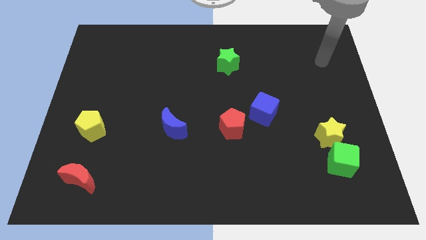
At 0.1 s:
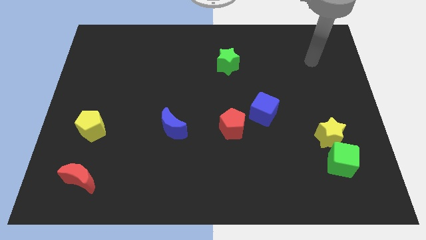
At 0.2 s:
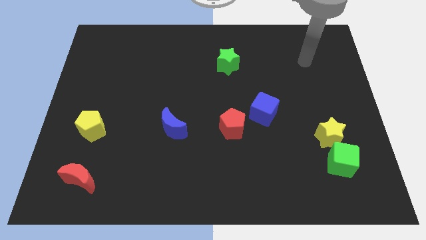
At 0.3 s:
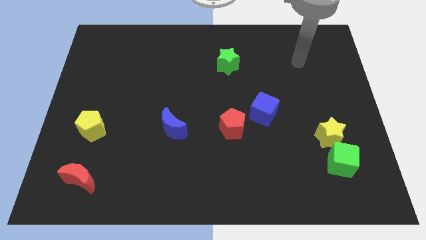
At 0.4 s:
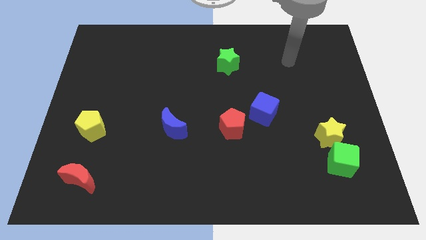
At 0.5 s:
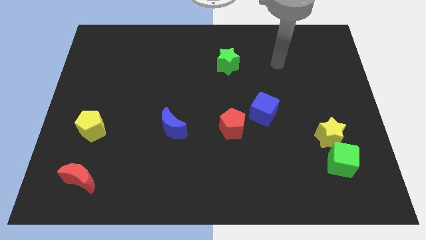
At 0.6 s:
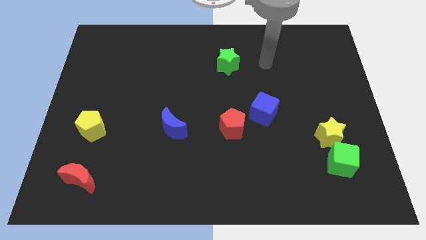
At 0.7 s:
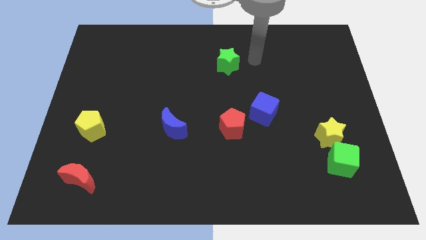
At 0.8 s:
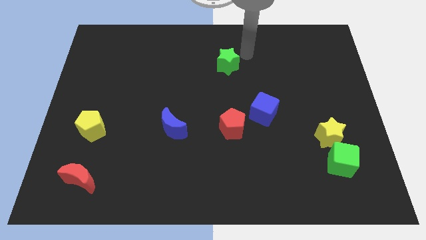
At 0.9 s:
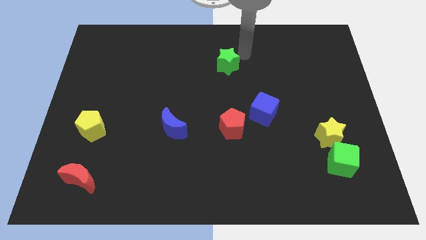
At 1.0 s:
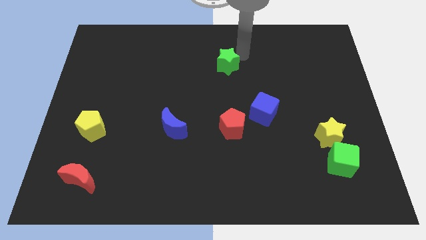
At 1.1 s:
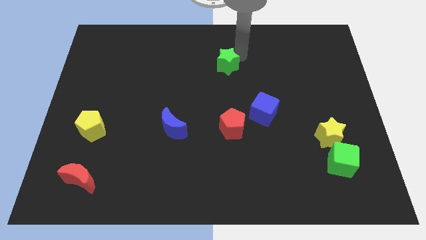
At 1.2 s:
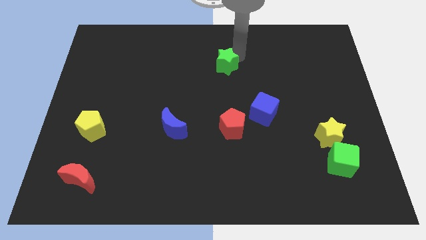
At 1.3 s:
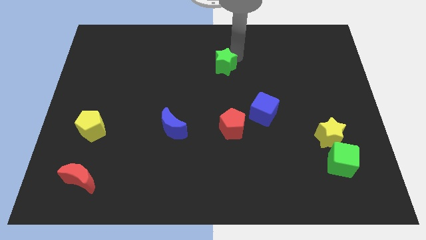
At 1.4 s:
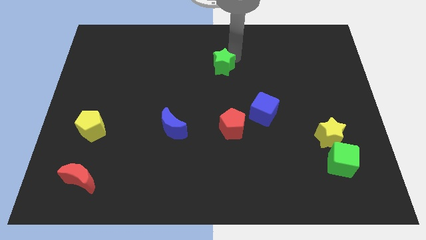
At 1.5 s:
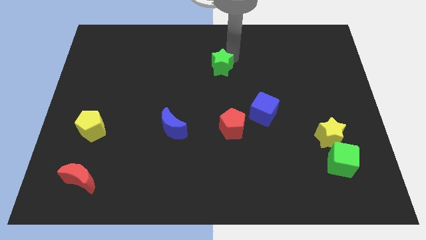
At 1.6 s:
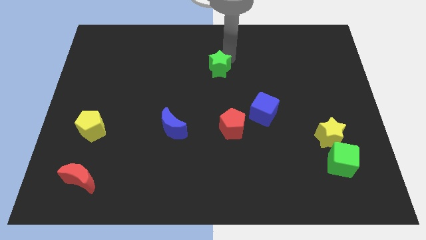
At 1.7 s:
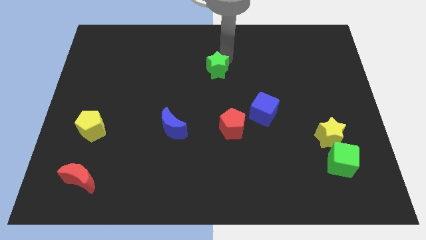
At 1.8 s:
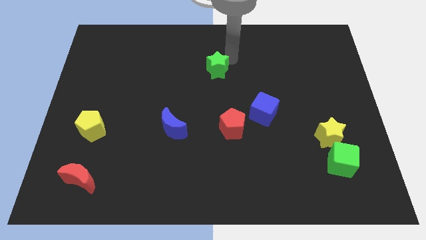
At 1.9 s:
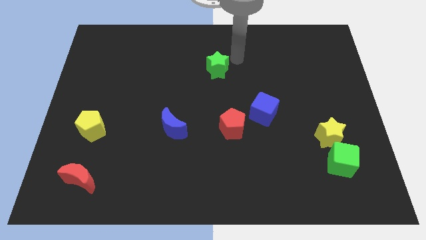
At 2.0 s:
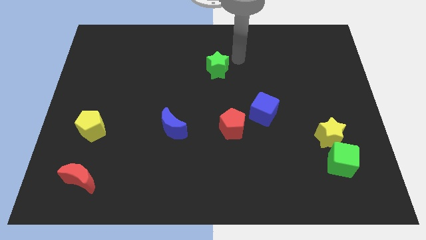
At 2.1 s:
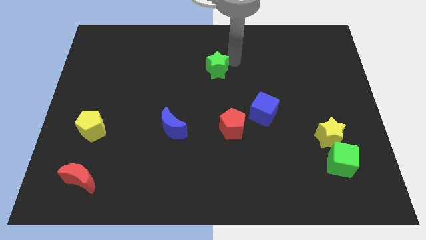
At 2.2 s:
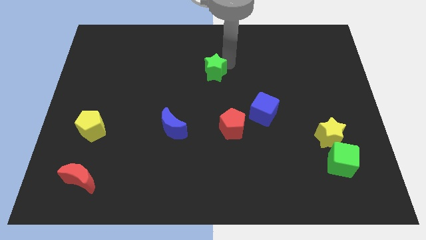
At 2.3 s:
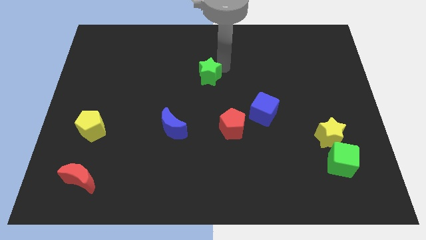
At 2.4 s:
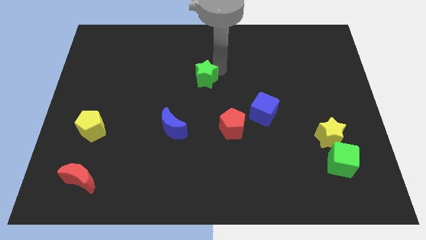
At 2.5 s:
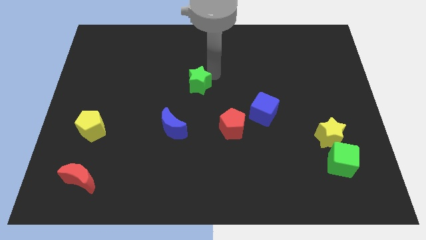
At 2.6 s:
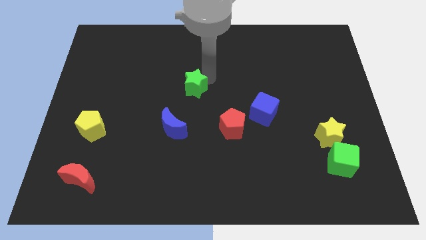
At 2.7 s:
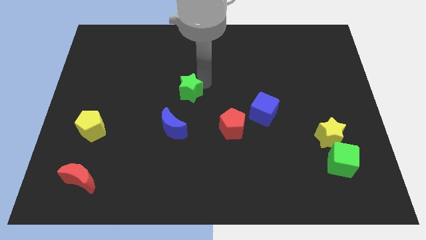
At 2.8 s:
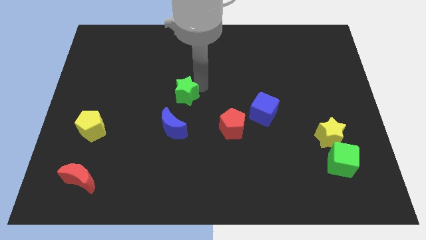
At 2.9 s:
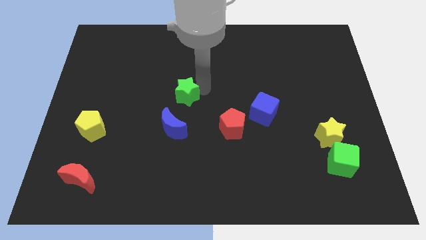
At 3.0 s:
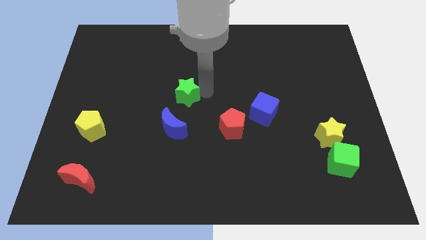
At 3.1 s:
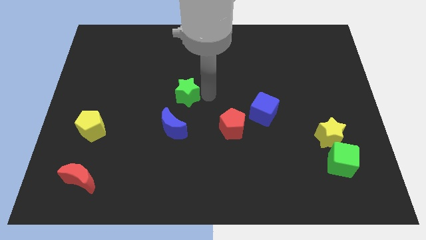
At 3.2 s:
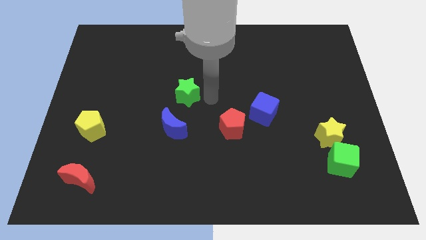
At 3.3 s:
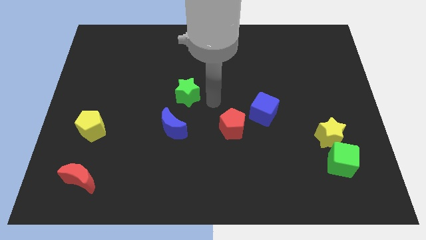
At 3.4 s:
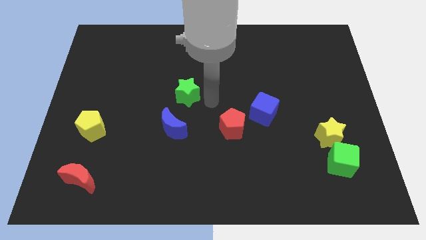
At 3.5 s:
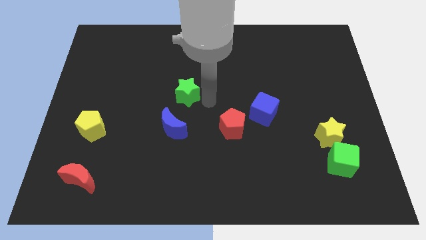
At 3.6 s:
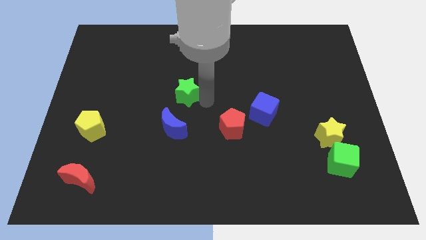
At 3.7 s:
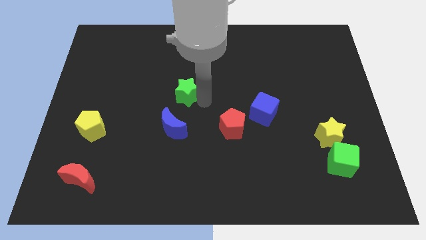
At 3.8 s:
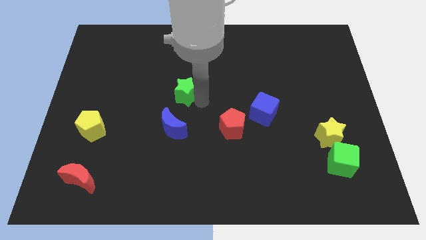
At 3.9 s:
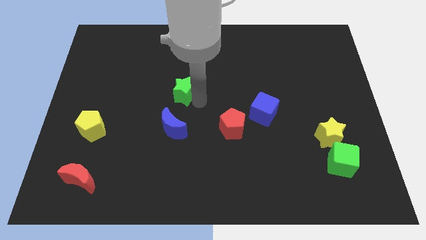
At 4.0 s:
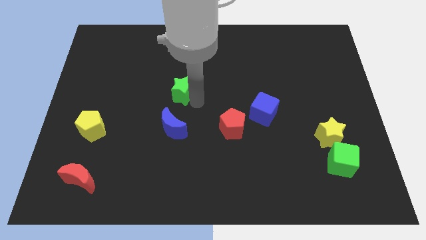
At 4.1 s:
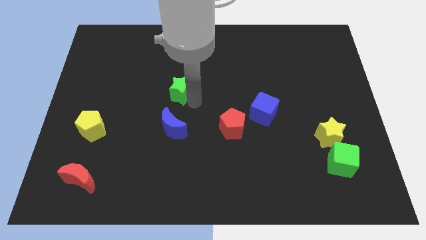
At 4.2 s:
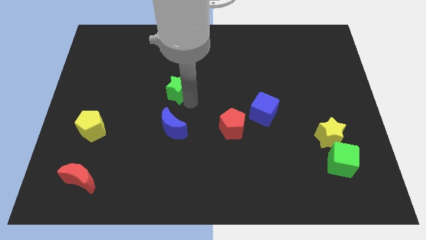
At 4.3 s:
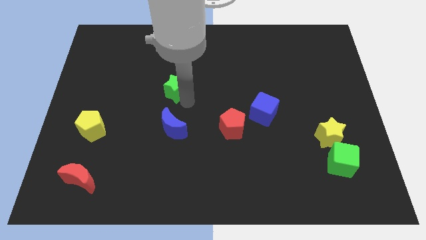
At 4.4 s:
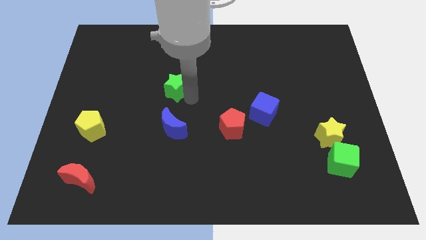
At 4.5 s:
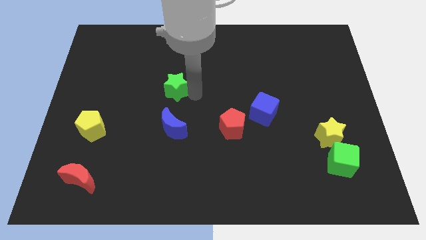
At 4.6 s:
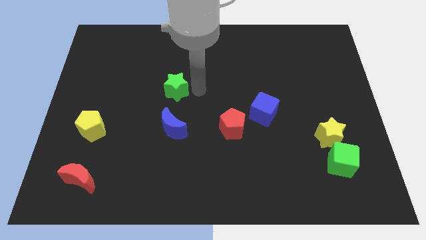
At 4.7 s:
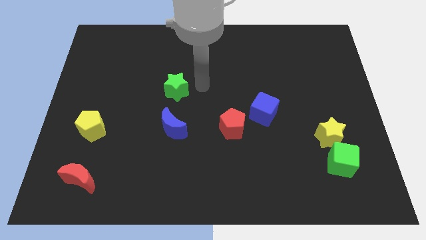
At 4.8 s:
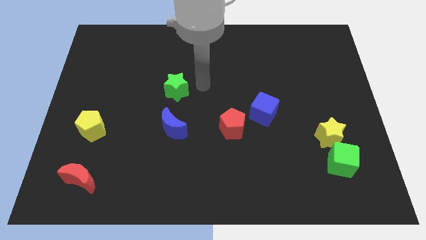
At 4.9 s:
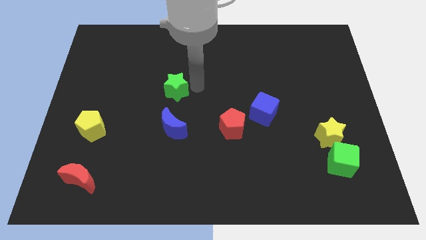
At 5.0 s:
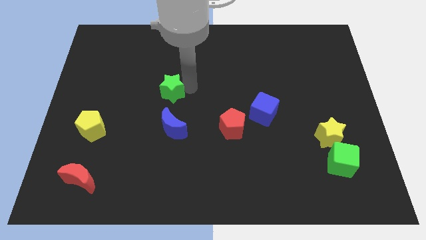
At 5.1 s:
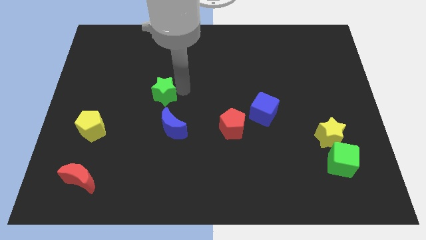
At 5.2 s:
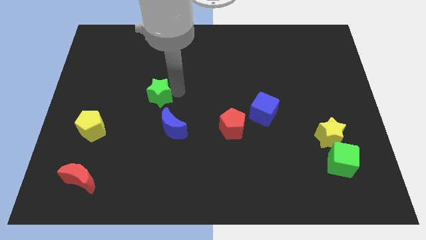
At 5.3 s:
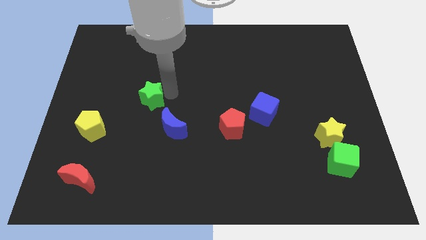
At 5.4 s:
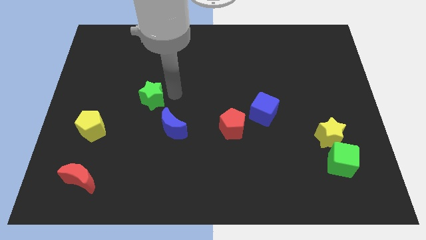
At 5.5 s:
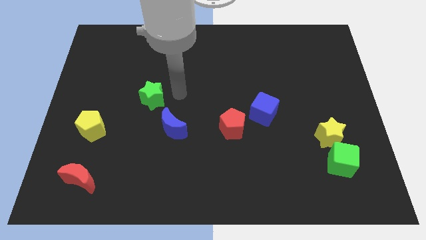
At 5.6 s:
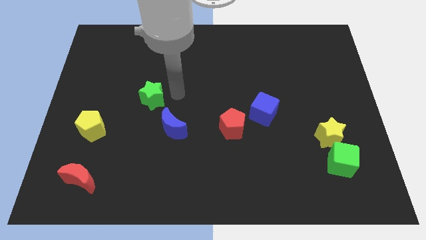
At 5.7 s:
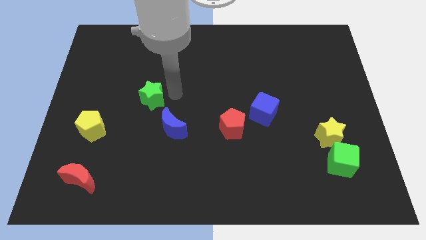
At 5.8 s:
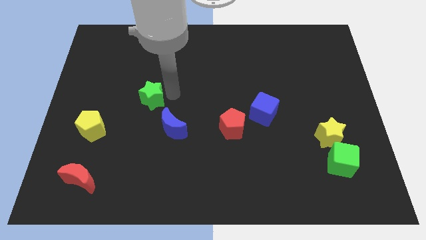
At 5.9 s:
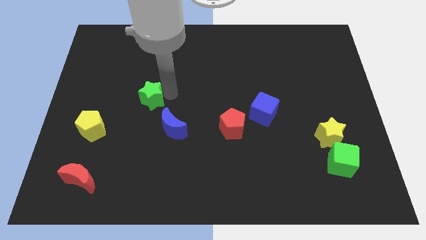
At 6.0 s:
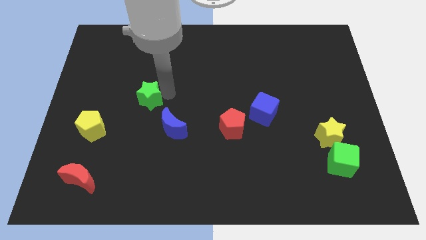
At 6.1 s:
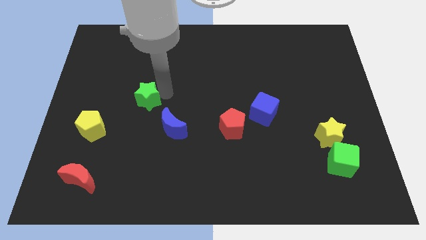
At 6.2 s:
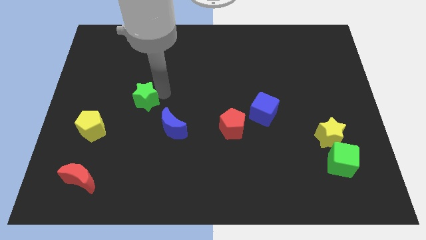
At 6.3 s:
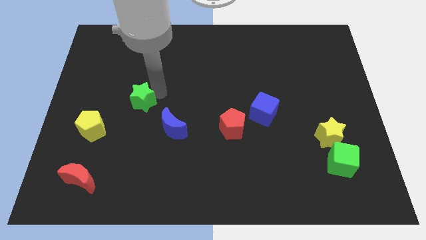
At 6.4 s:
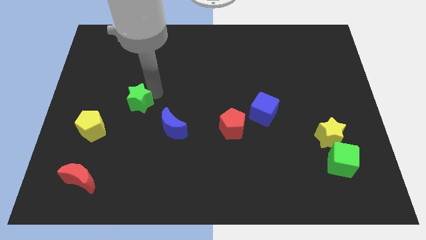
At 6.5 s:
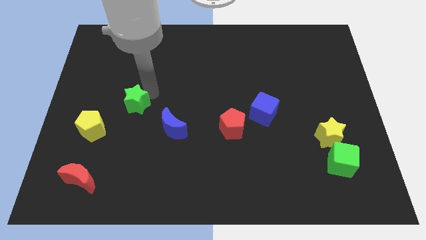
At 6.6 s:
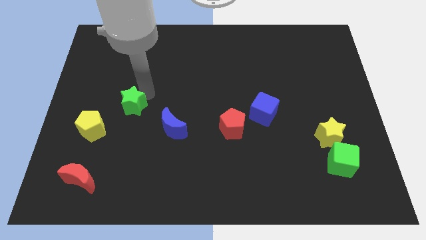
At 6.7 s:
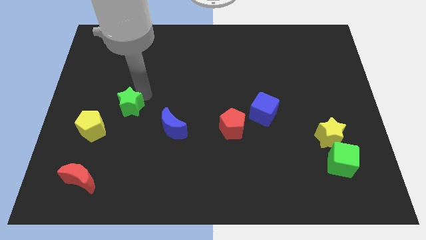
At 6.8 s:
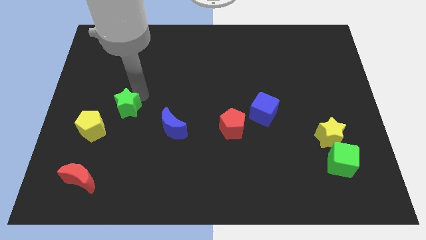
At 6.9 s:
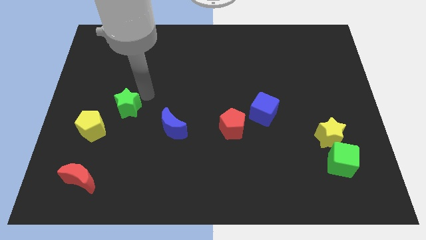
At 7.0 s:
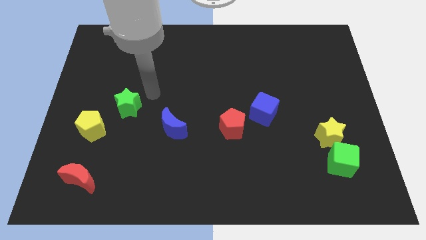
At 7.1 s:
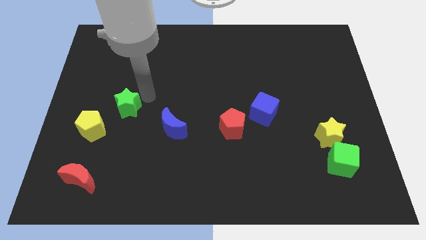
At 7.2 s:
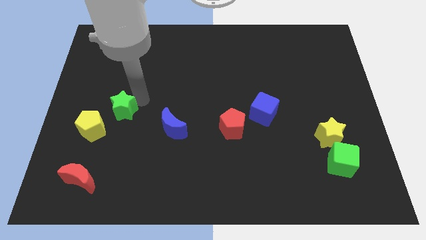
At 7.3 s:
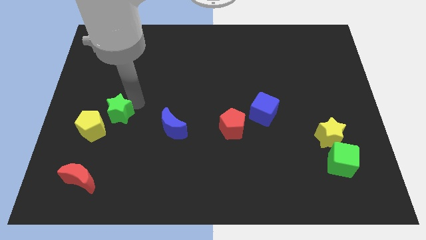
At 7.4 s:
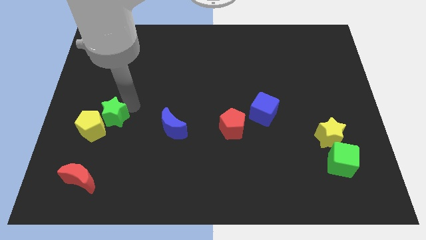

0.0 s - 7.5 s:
push the green star to the yellow pentagon
